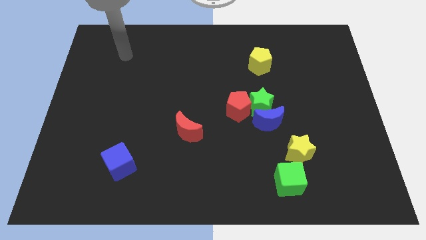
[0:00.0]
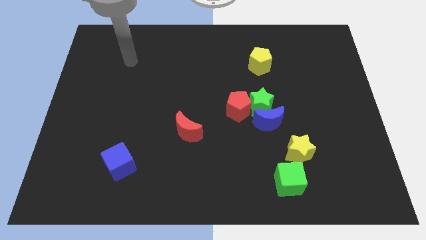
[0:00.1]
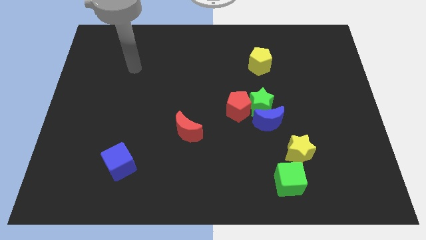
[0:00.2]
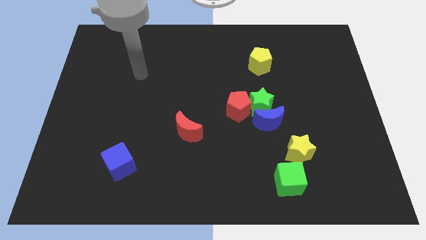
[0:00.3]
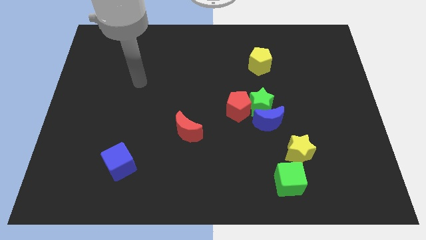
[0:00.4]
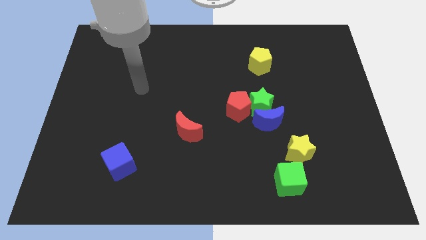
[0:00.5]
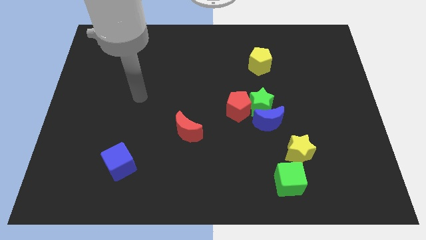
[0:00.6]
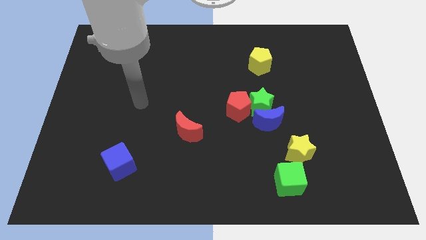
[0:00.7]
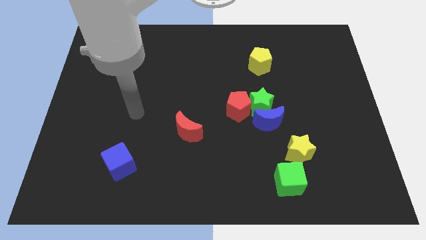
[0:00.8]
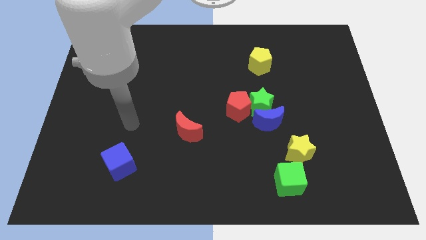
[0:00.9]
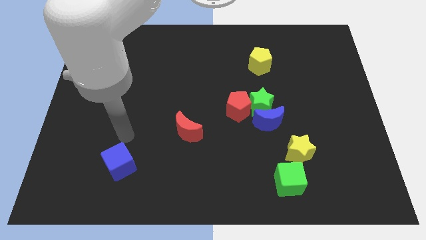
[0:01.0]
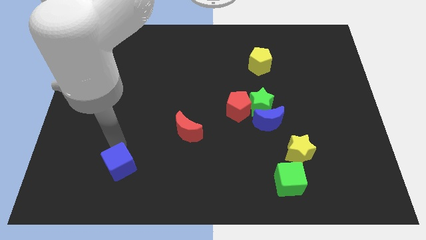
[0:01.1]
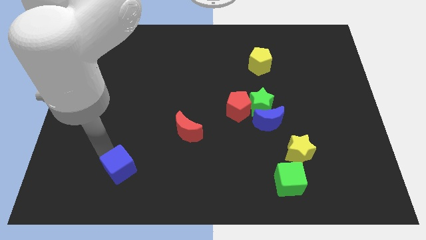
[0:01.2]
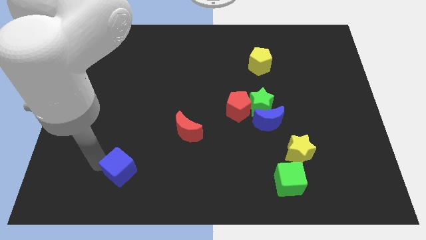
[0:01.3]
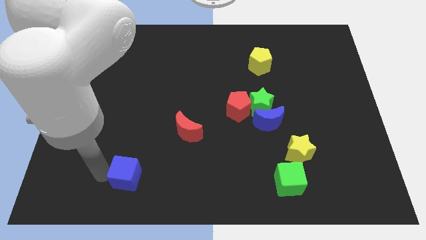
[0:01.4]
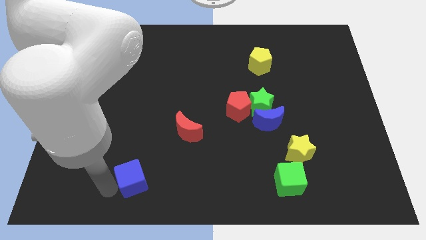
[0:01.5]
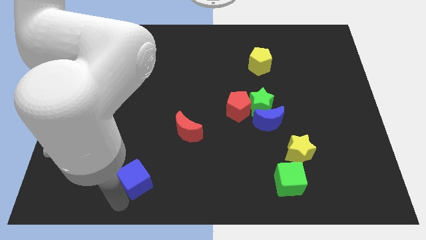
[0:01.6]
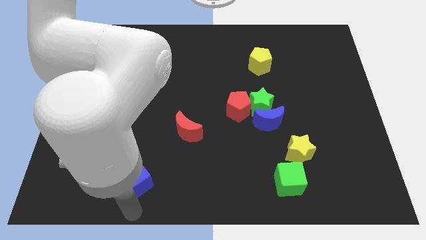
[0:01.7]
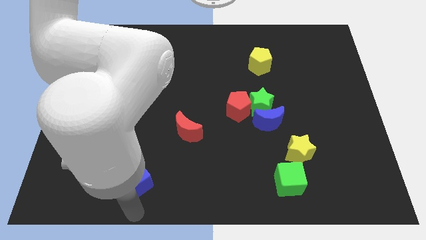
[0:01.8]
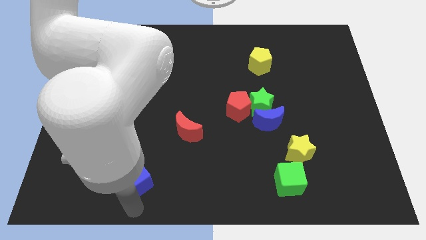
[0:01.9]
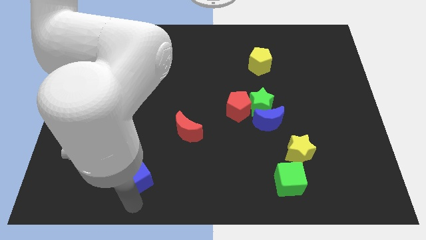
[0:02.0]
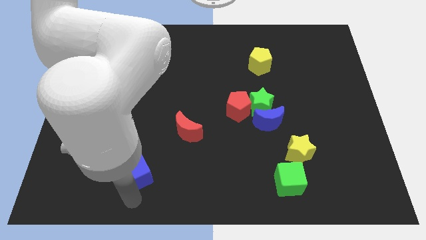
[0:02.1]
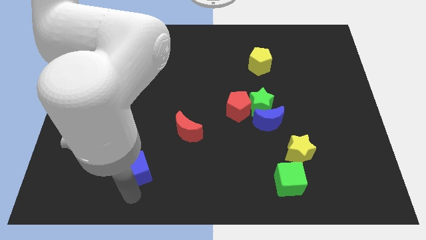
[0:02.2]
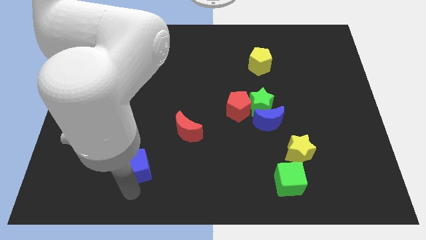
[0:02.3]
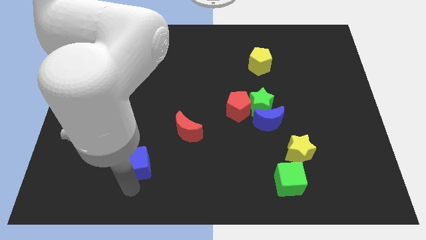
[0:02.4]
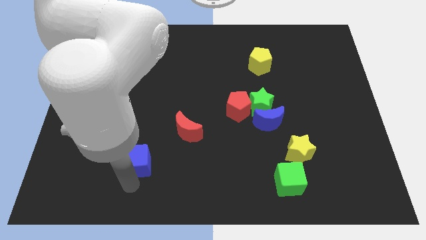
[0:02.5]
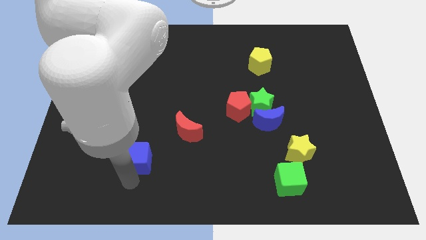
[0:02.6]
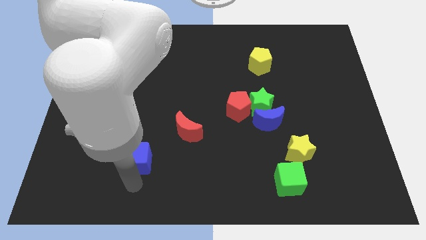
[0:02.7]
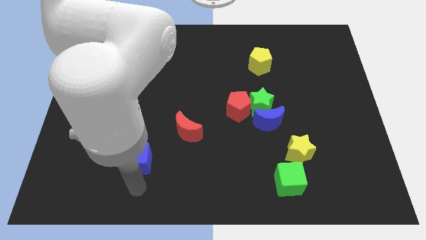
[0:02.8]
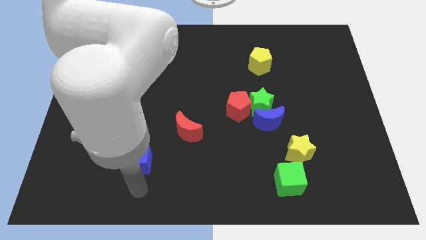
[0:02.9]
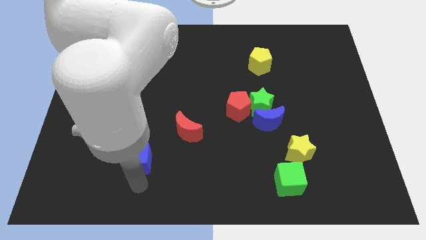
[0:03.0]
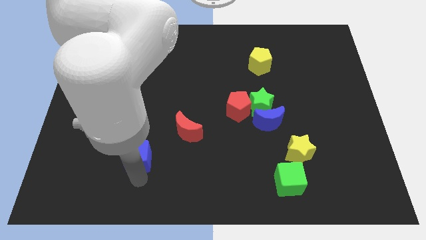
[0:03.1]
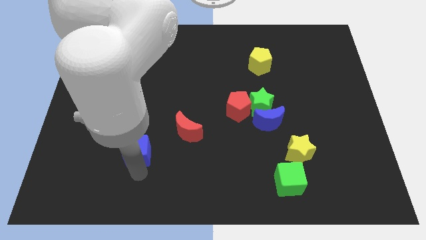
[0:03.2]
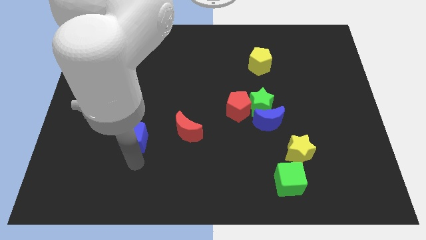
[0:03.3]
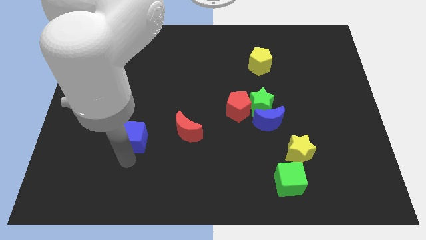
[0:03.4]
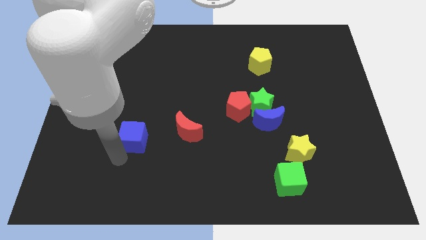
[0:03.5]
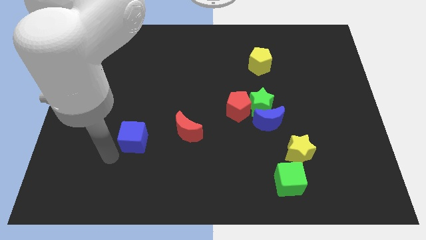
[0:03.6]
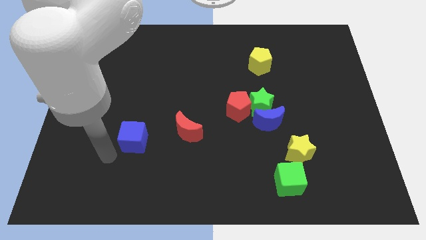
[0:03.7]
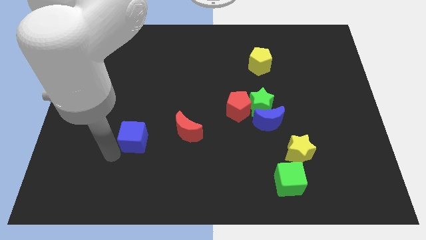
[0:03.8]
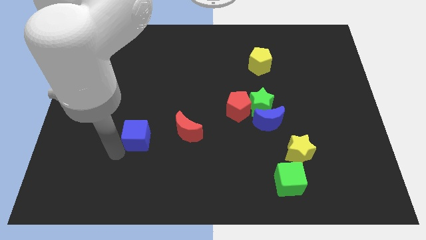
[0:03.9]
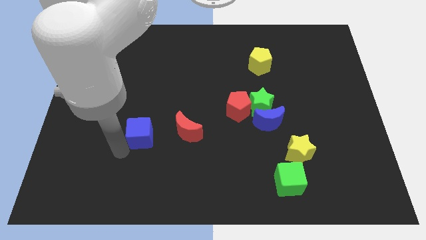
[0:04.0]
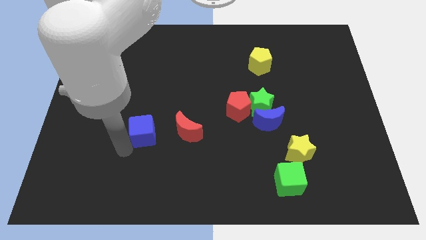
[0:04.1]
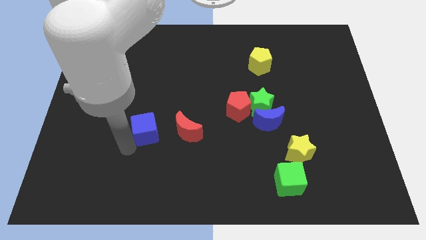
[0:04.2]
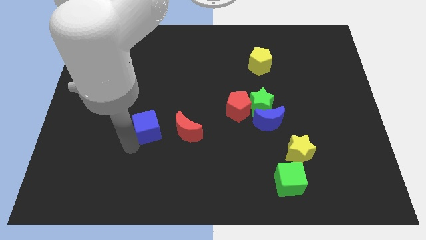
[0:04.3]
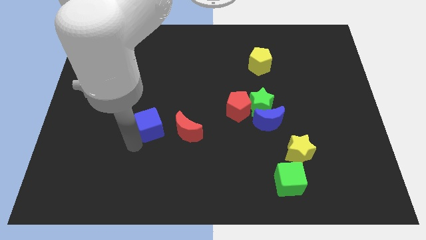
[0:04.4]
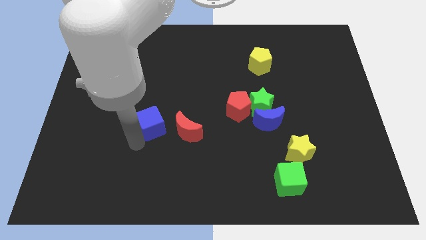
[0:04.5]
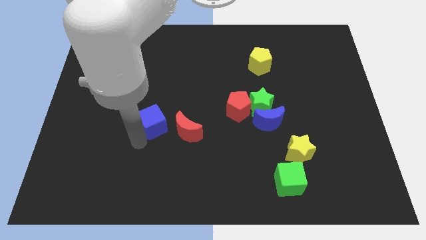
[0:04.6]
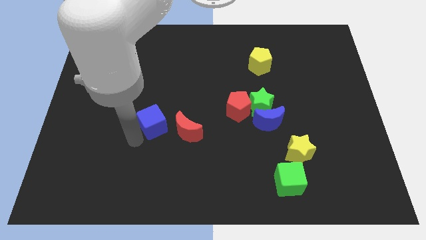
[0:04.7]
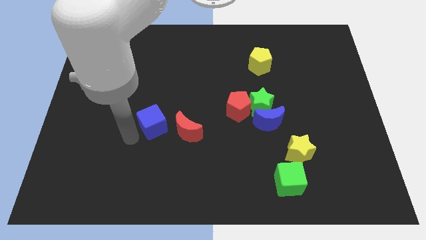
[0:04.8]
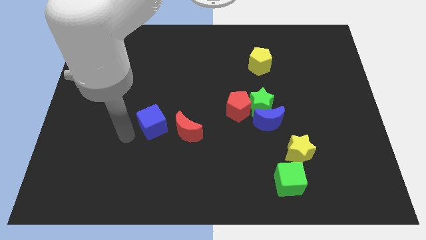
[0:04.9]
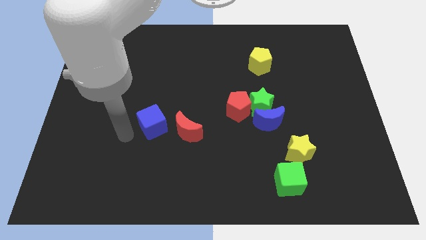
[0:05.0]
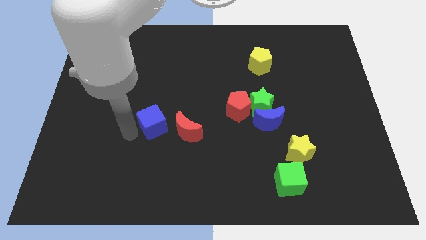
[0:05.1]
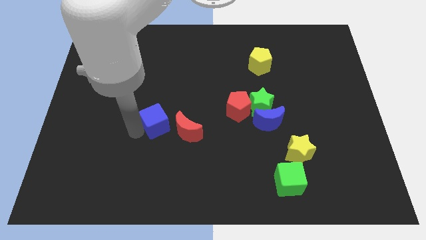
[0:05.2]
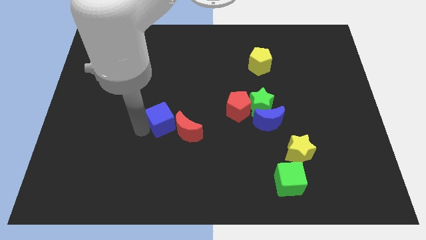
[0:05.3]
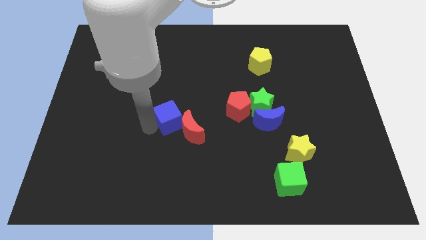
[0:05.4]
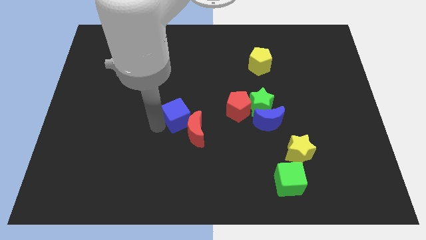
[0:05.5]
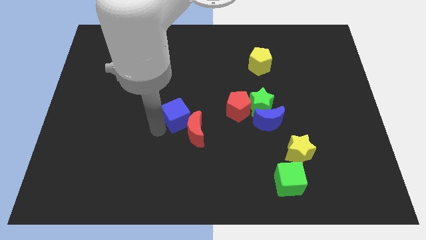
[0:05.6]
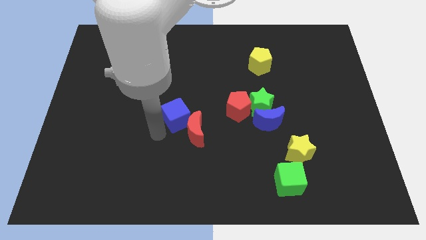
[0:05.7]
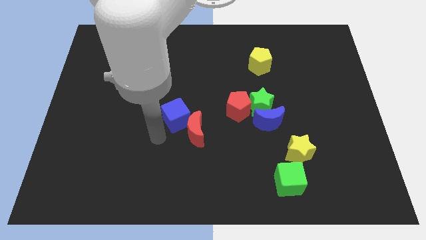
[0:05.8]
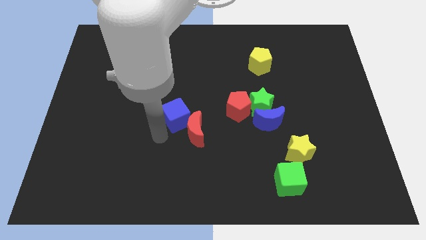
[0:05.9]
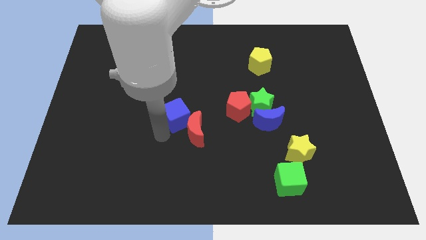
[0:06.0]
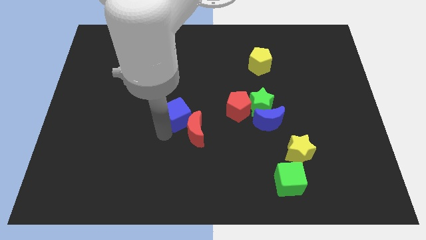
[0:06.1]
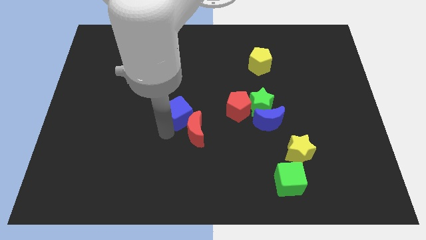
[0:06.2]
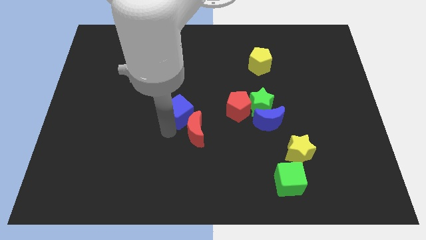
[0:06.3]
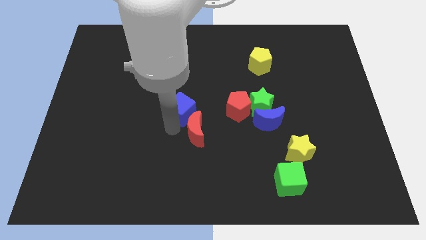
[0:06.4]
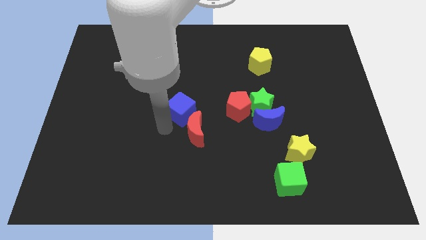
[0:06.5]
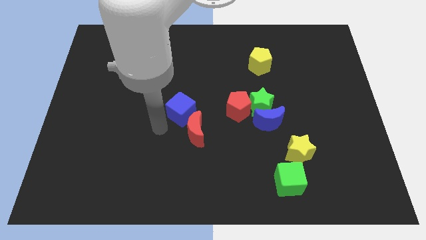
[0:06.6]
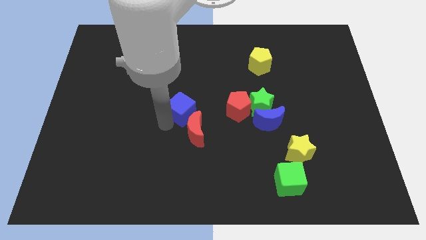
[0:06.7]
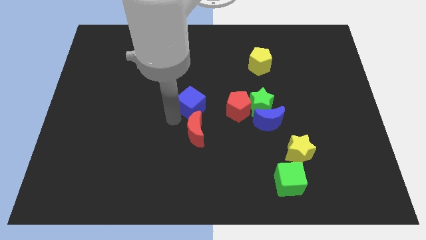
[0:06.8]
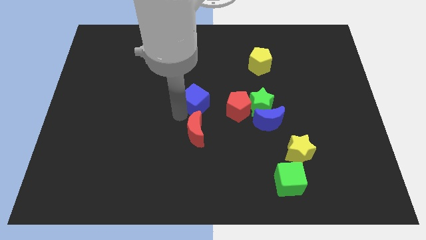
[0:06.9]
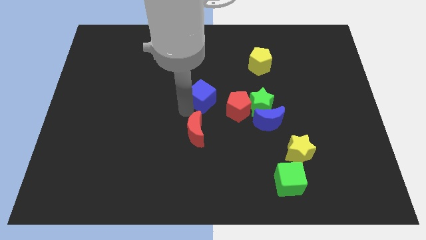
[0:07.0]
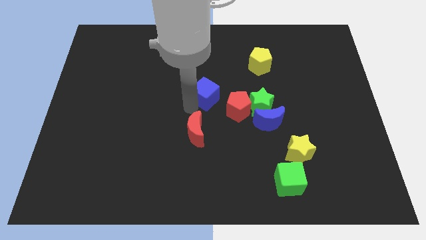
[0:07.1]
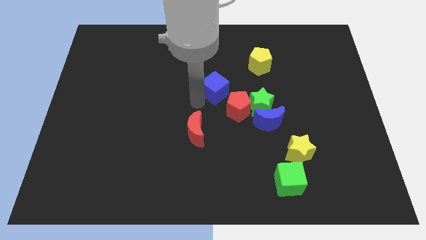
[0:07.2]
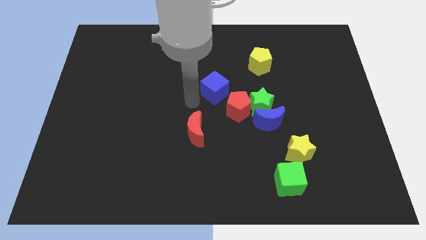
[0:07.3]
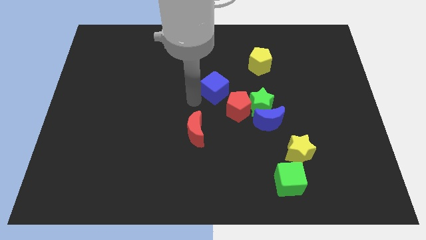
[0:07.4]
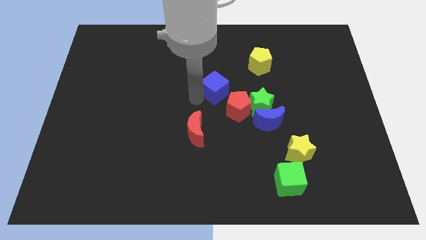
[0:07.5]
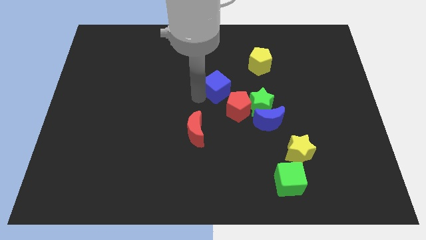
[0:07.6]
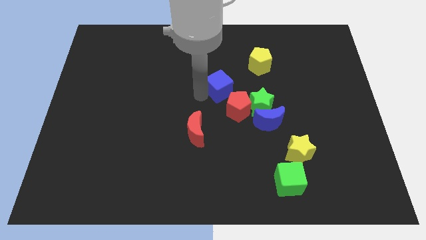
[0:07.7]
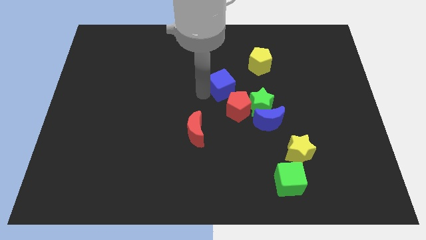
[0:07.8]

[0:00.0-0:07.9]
put the blue cube to the bottom left of the yellow pentagon
